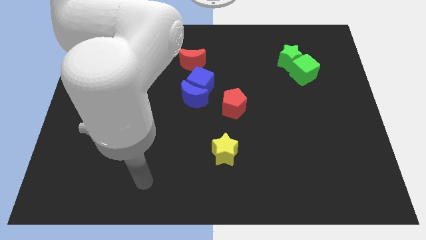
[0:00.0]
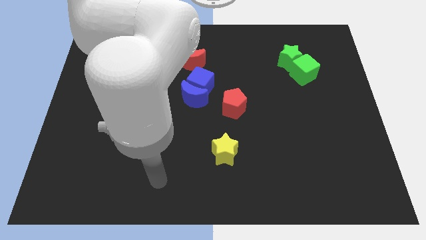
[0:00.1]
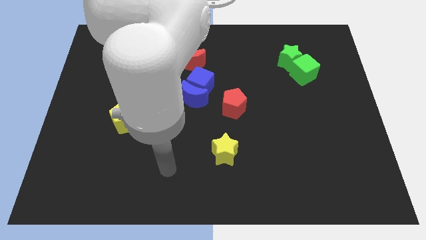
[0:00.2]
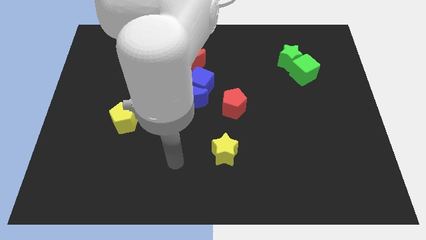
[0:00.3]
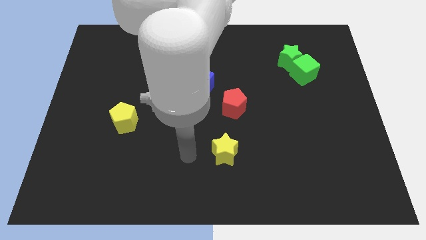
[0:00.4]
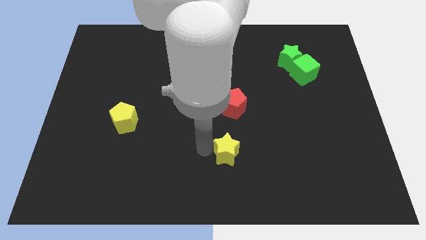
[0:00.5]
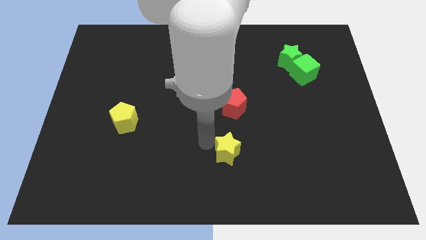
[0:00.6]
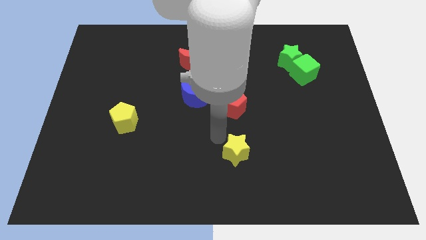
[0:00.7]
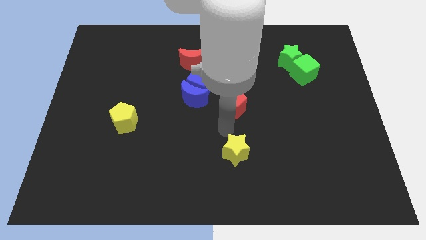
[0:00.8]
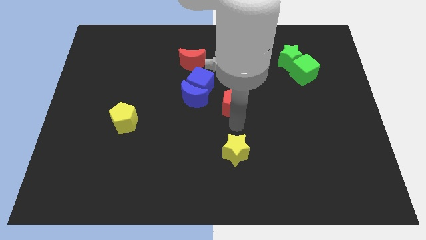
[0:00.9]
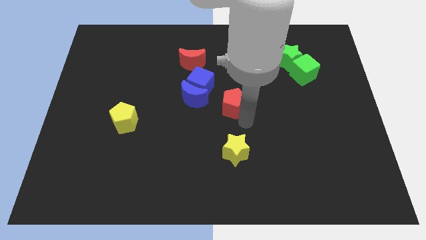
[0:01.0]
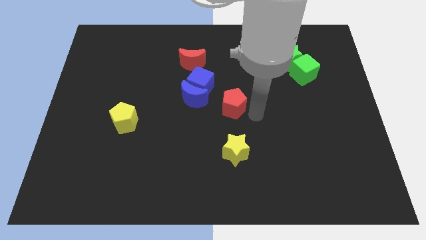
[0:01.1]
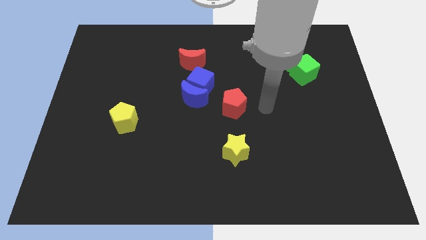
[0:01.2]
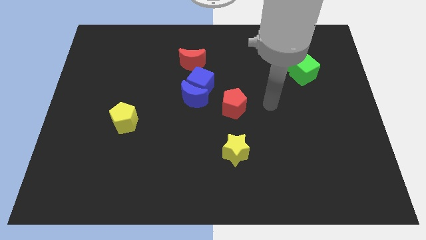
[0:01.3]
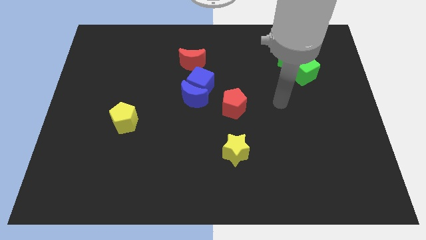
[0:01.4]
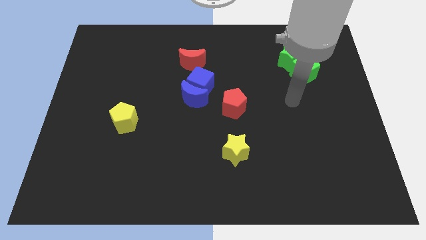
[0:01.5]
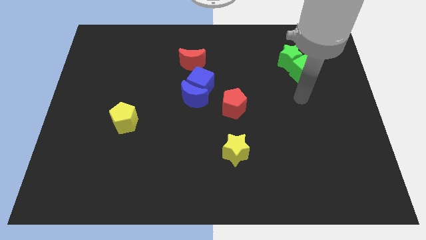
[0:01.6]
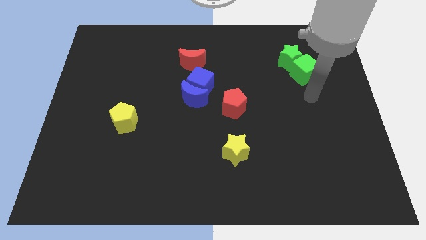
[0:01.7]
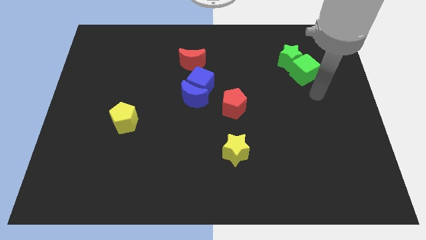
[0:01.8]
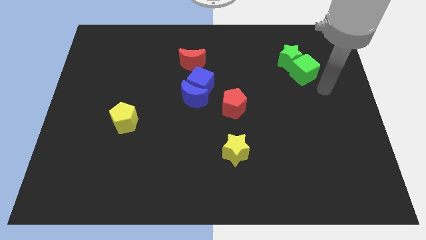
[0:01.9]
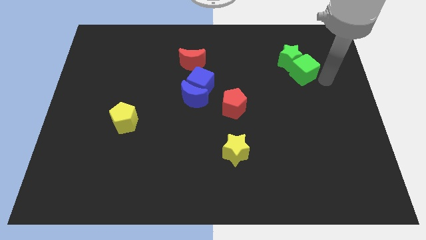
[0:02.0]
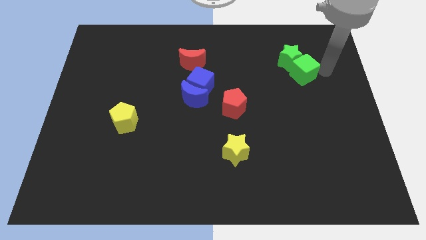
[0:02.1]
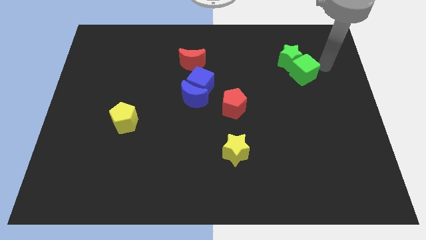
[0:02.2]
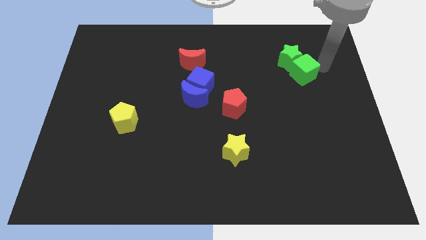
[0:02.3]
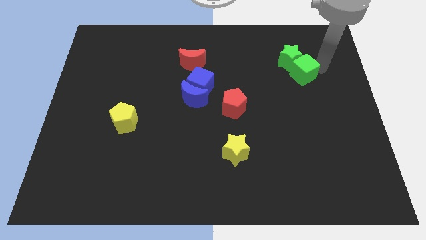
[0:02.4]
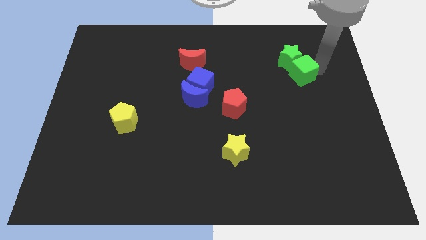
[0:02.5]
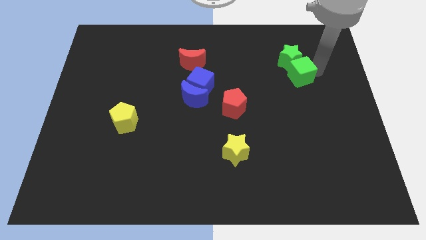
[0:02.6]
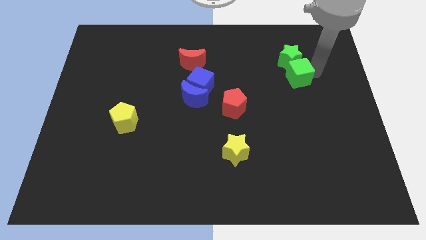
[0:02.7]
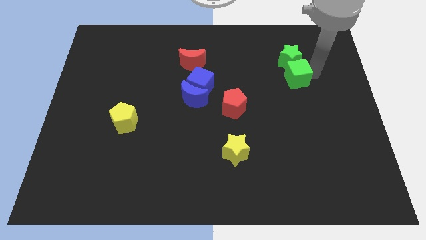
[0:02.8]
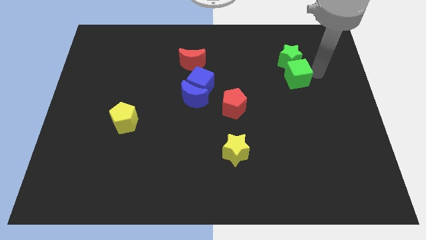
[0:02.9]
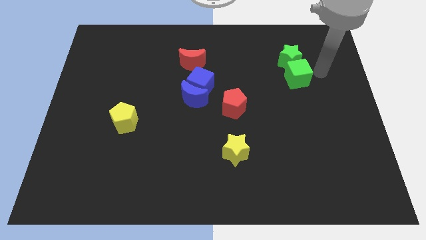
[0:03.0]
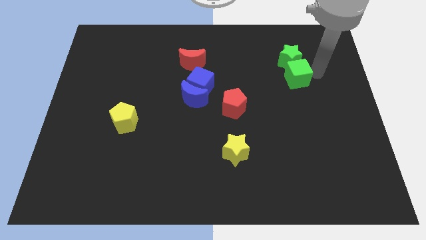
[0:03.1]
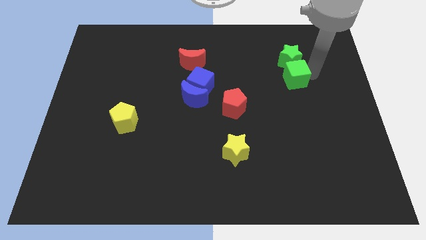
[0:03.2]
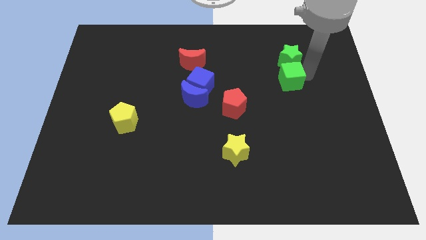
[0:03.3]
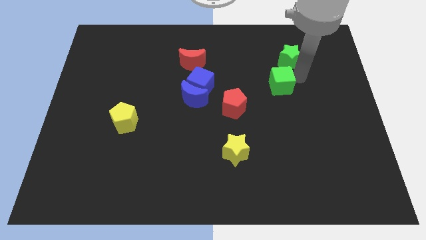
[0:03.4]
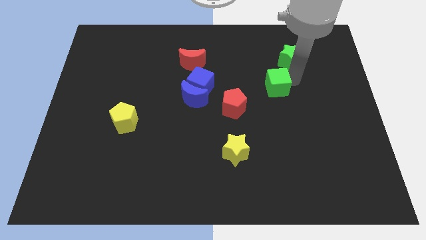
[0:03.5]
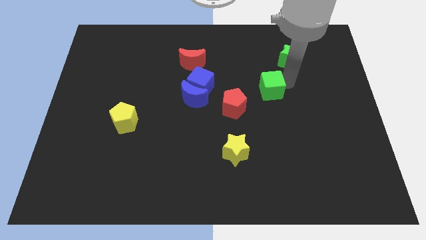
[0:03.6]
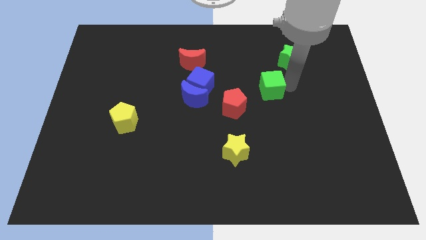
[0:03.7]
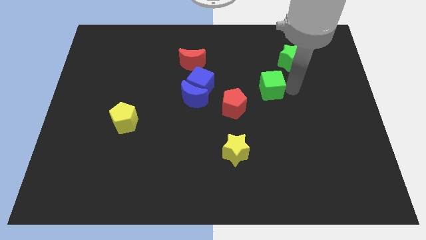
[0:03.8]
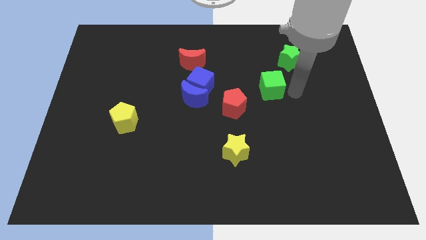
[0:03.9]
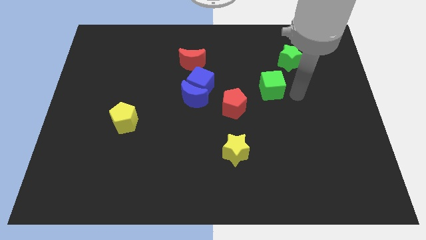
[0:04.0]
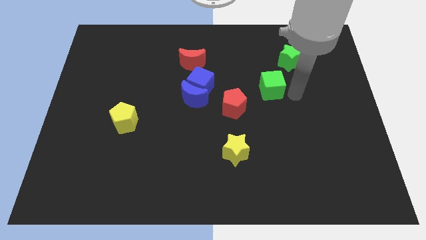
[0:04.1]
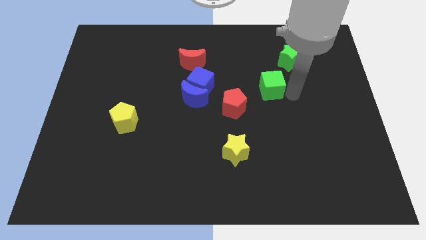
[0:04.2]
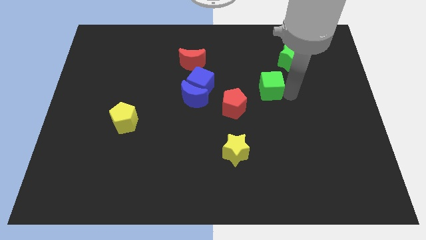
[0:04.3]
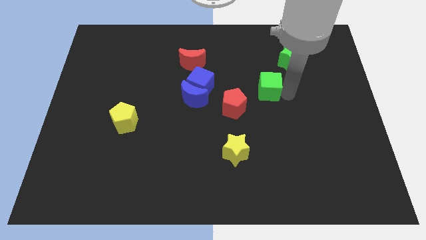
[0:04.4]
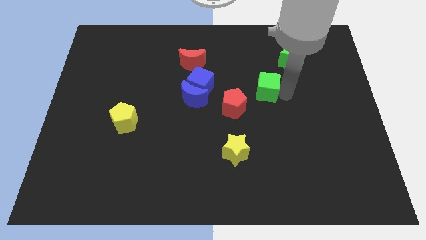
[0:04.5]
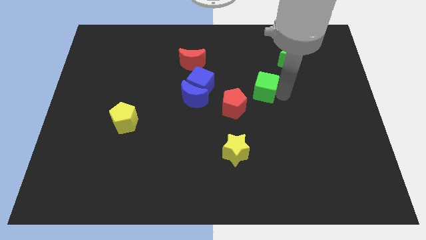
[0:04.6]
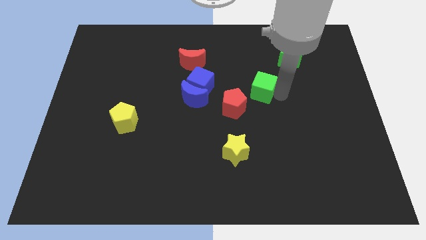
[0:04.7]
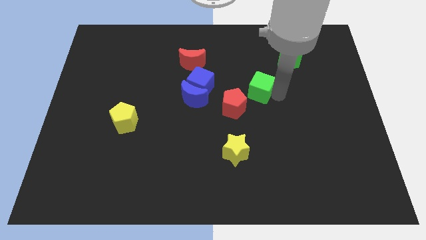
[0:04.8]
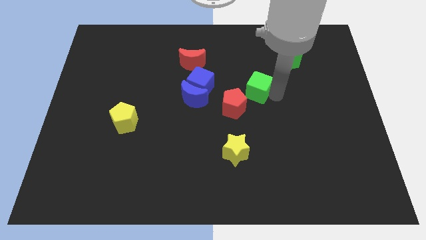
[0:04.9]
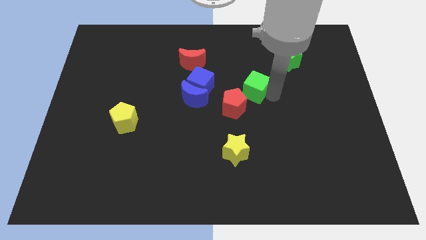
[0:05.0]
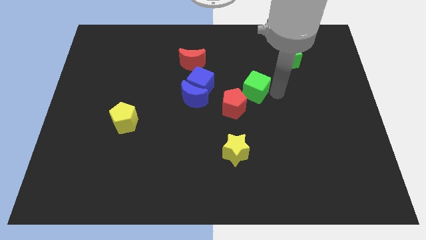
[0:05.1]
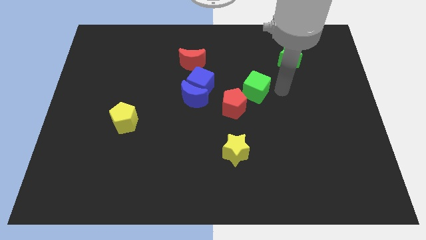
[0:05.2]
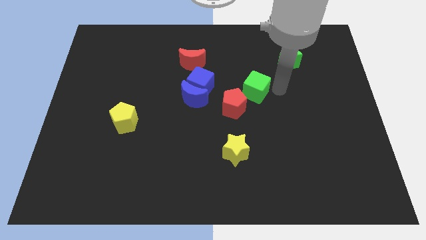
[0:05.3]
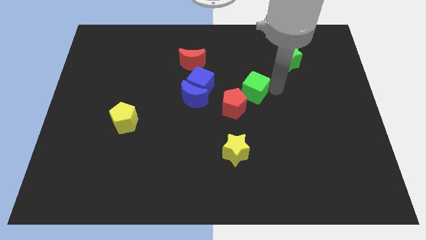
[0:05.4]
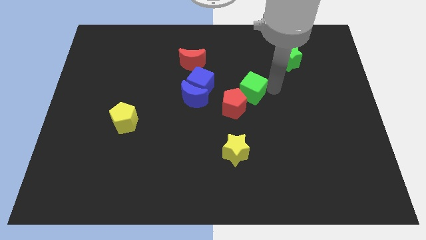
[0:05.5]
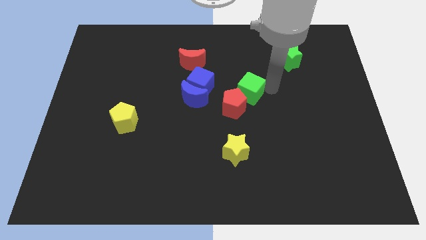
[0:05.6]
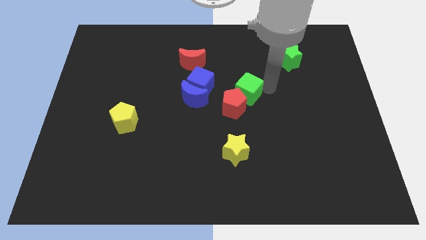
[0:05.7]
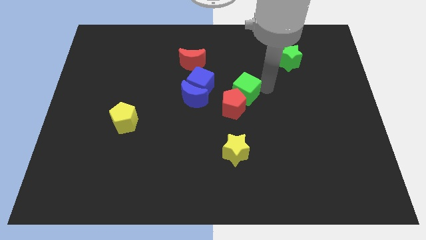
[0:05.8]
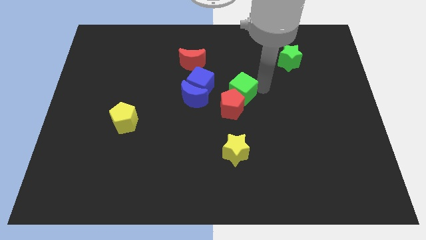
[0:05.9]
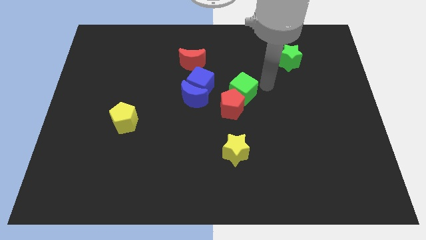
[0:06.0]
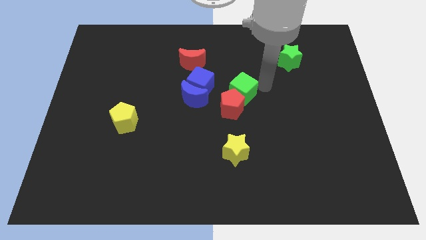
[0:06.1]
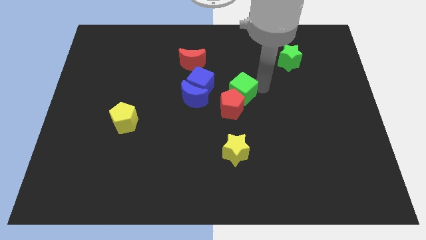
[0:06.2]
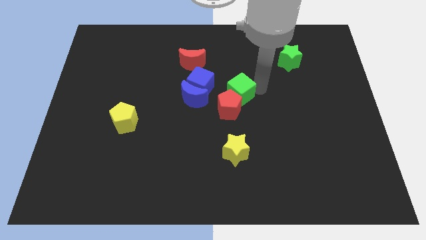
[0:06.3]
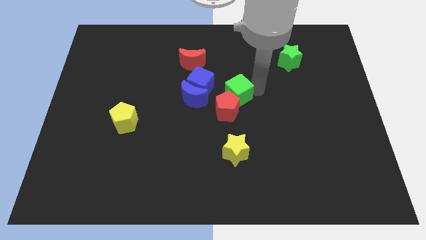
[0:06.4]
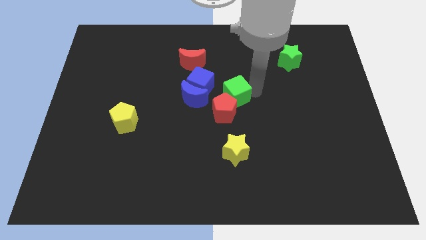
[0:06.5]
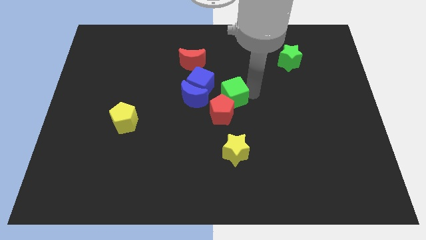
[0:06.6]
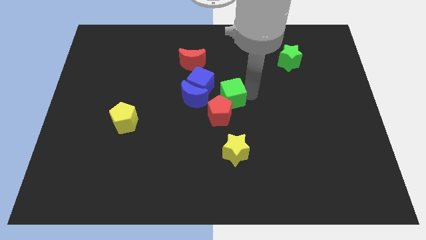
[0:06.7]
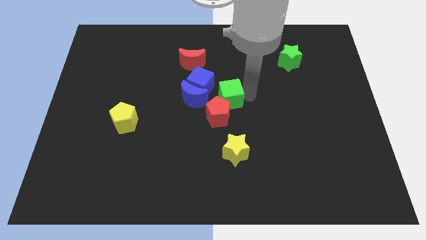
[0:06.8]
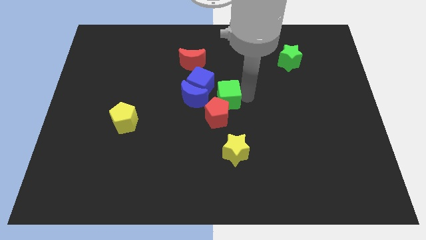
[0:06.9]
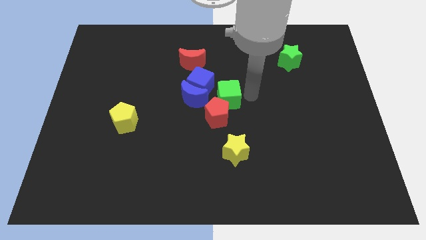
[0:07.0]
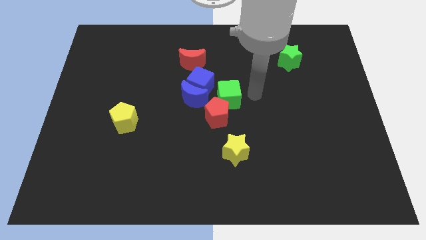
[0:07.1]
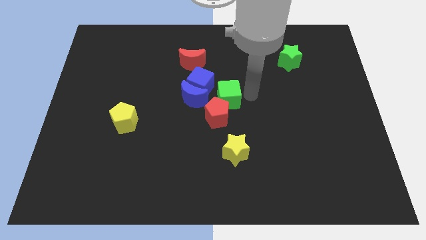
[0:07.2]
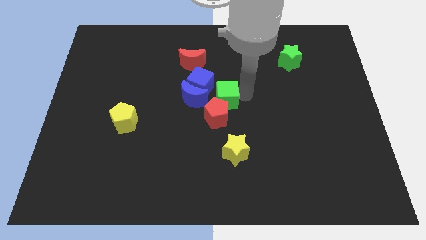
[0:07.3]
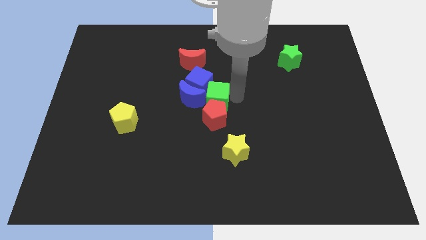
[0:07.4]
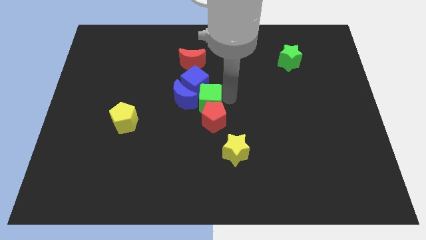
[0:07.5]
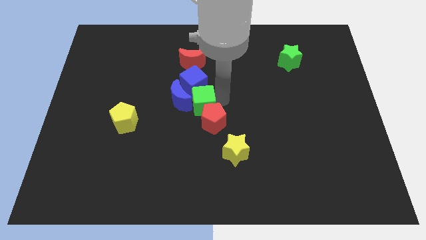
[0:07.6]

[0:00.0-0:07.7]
slide the green cube close to the blue moon
